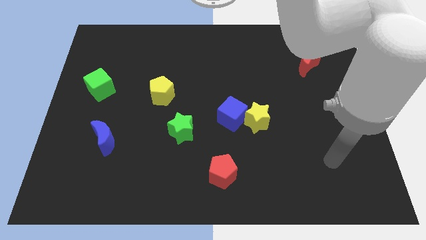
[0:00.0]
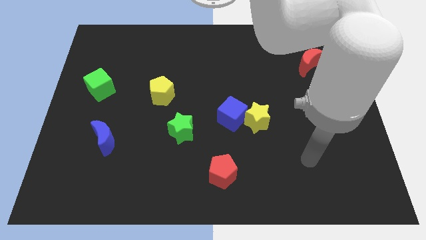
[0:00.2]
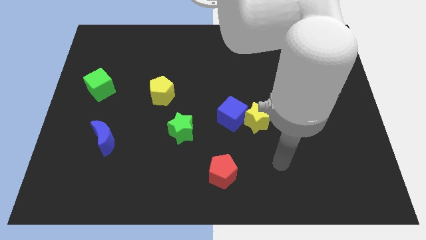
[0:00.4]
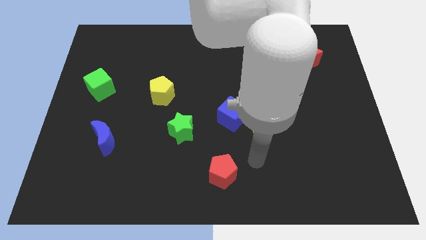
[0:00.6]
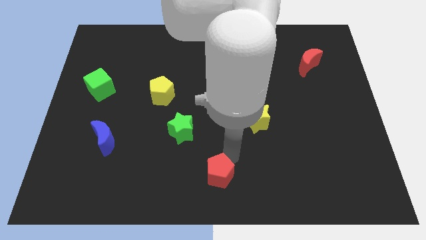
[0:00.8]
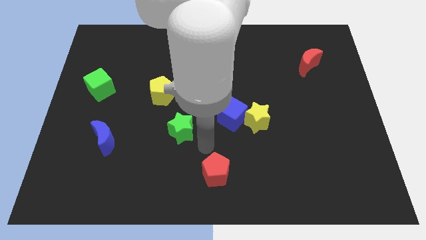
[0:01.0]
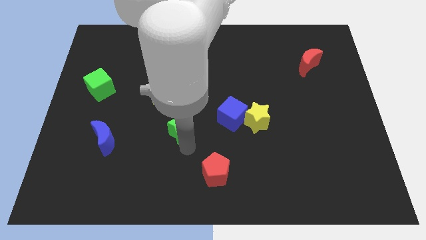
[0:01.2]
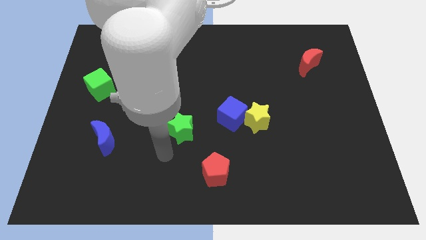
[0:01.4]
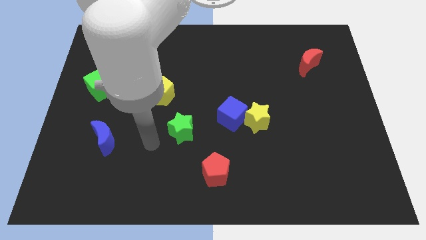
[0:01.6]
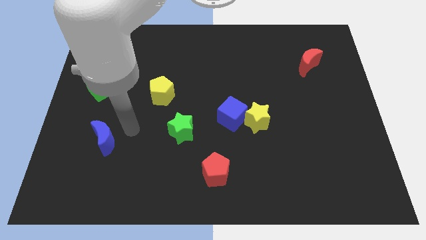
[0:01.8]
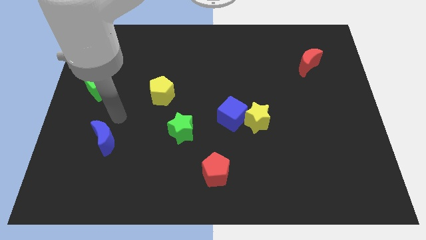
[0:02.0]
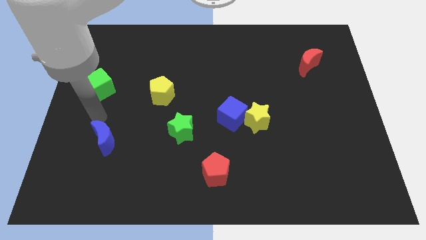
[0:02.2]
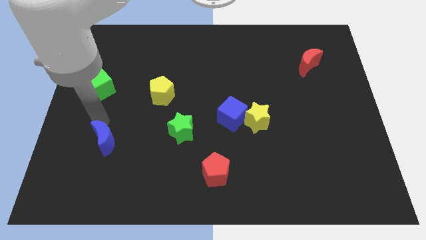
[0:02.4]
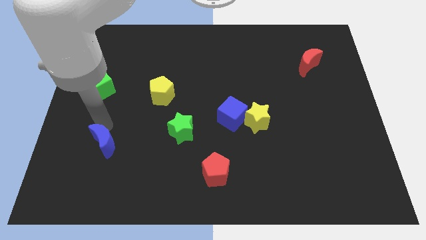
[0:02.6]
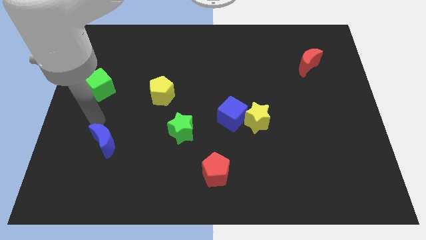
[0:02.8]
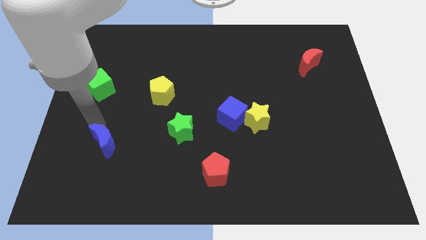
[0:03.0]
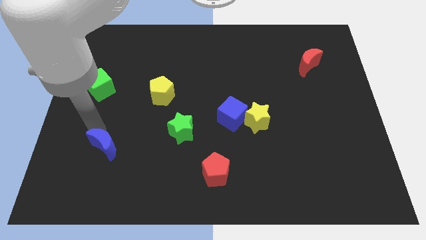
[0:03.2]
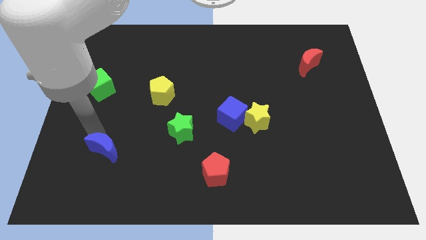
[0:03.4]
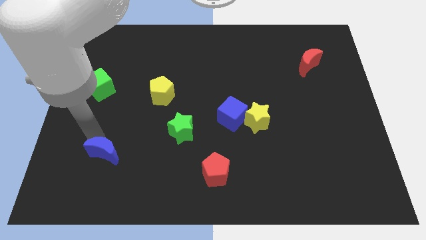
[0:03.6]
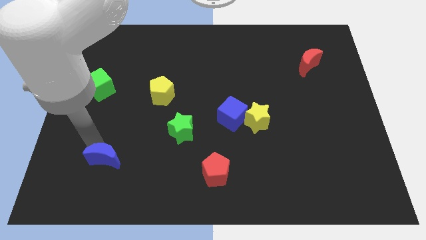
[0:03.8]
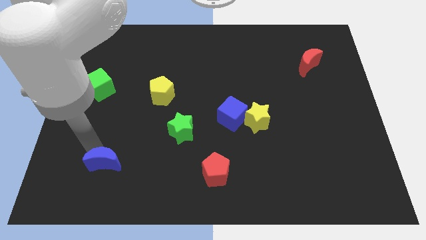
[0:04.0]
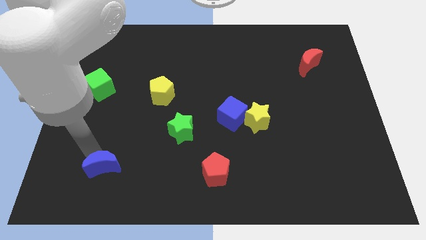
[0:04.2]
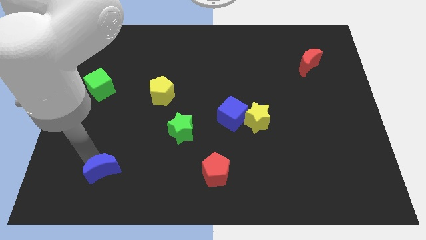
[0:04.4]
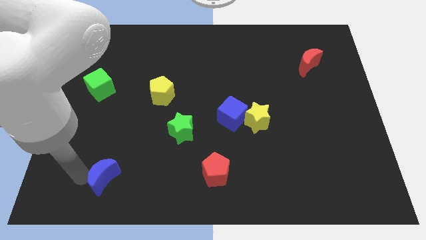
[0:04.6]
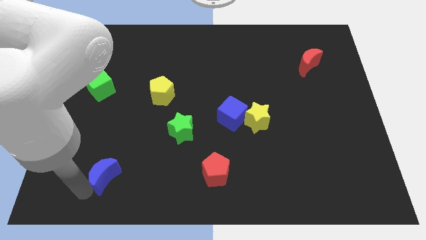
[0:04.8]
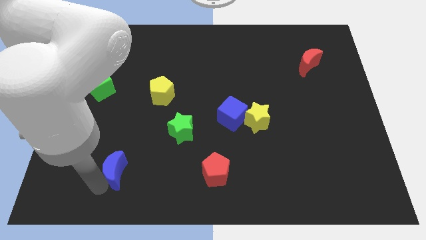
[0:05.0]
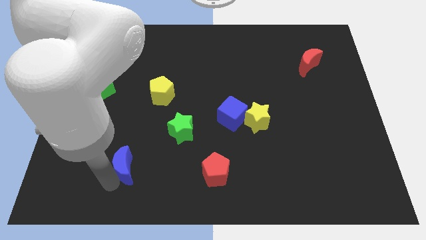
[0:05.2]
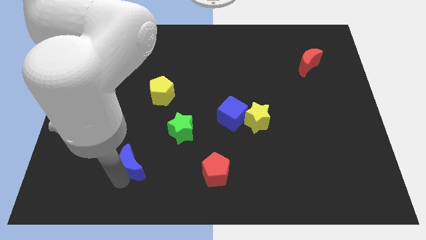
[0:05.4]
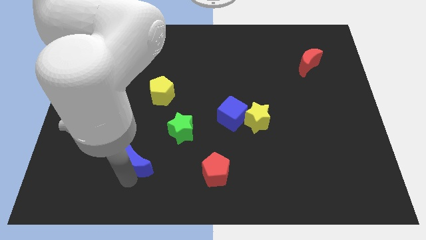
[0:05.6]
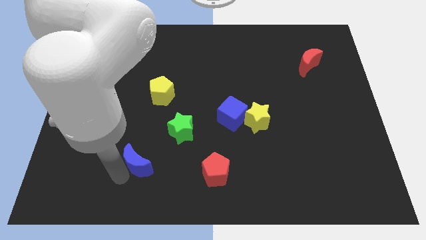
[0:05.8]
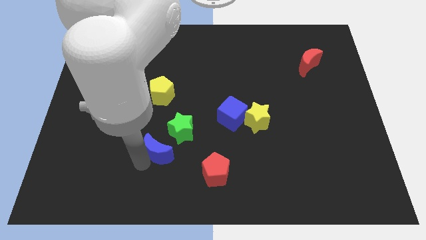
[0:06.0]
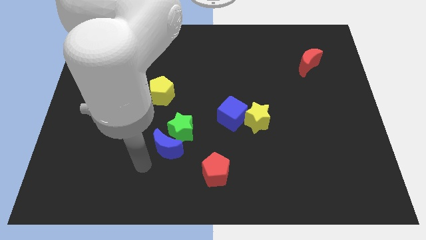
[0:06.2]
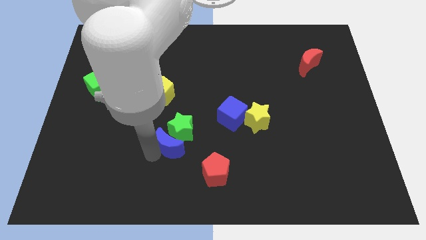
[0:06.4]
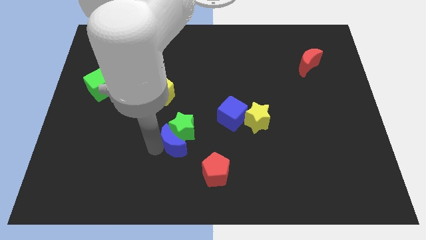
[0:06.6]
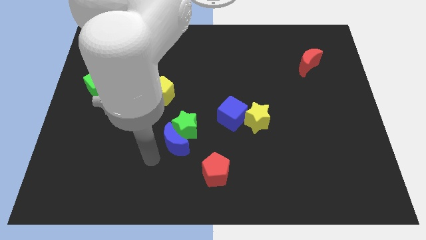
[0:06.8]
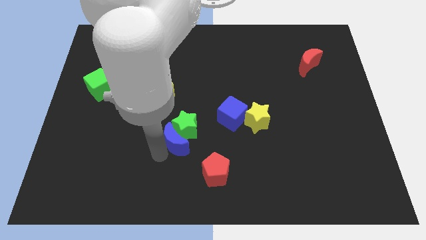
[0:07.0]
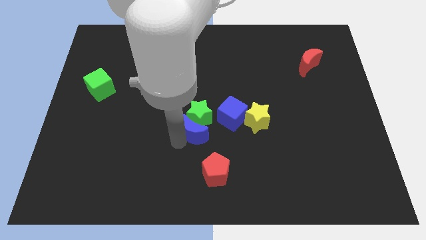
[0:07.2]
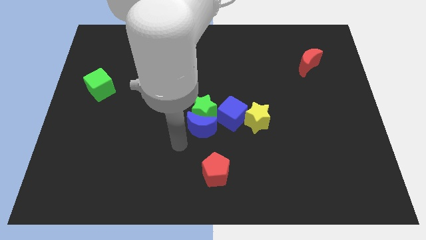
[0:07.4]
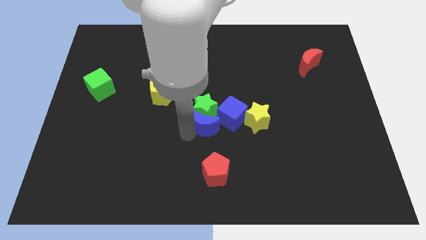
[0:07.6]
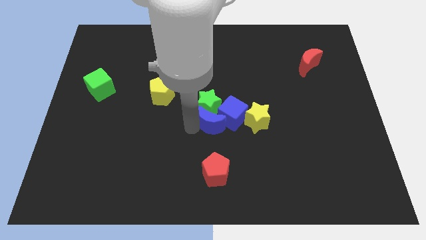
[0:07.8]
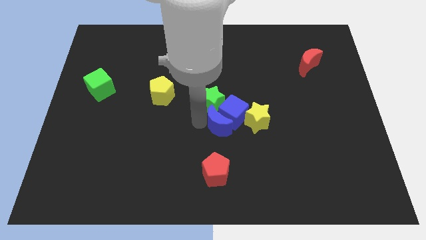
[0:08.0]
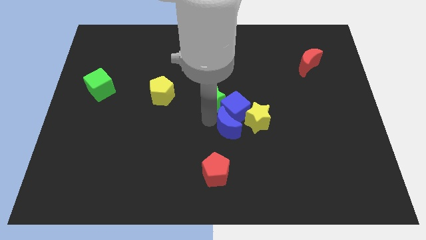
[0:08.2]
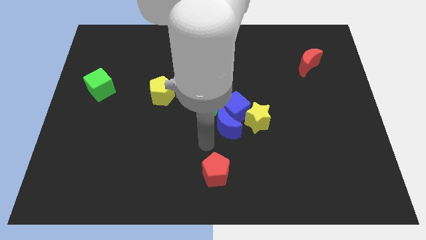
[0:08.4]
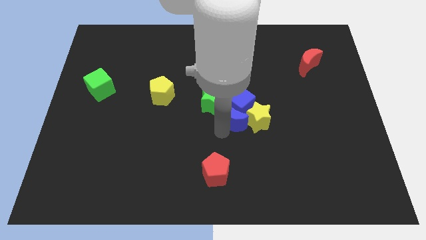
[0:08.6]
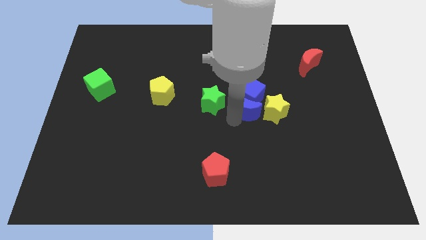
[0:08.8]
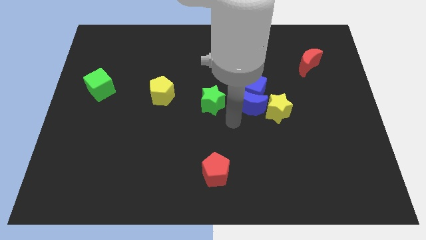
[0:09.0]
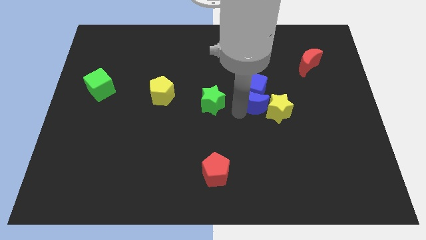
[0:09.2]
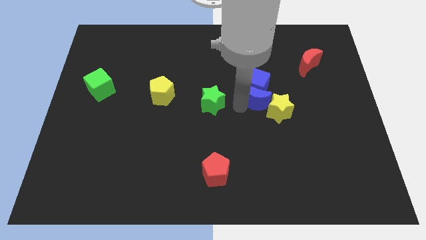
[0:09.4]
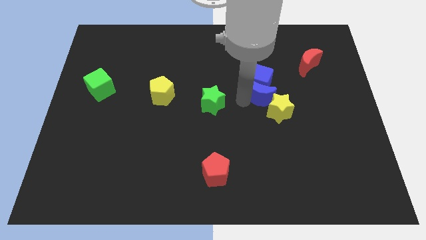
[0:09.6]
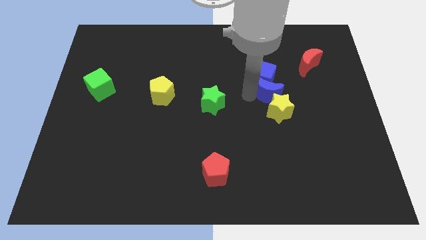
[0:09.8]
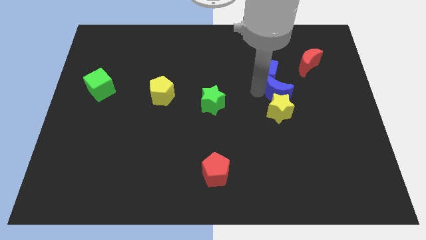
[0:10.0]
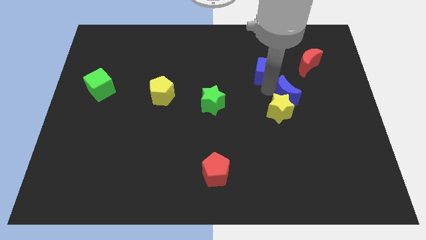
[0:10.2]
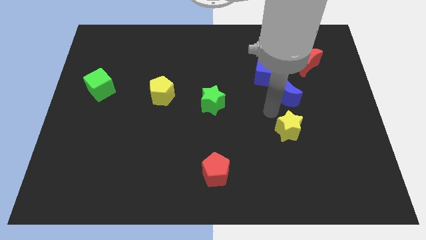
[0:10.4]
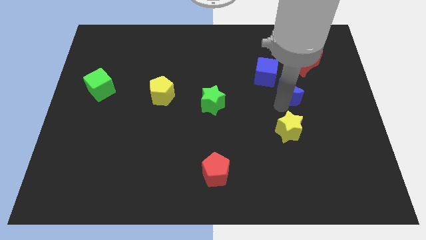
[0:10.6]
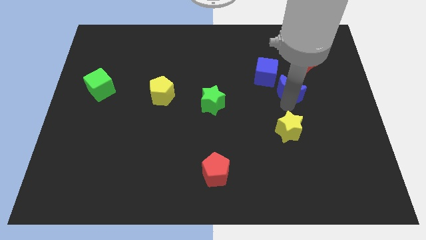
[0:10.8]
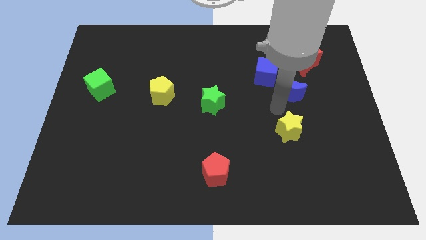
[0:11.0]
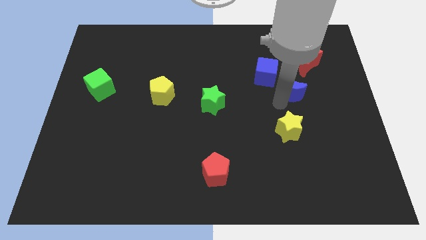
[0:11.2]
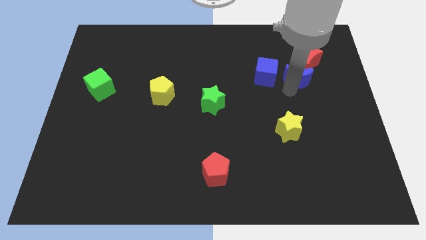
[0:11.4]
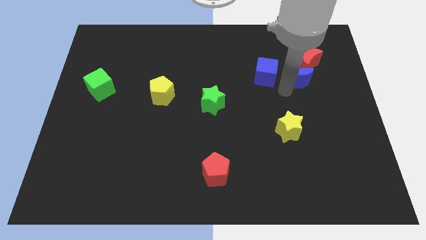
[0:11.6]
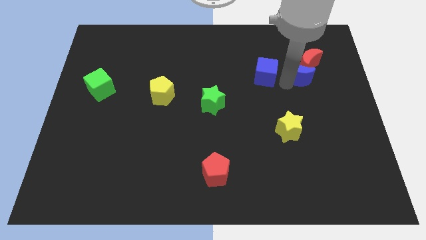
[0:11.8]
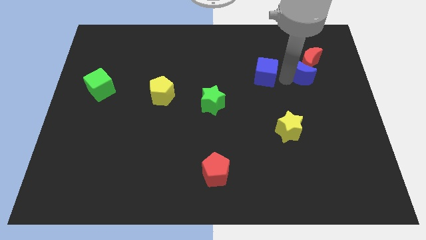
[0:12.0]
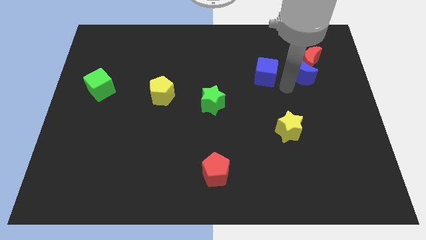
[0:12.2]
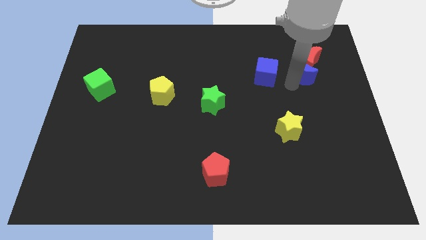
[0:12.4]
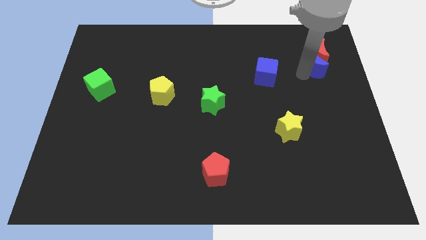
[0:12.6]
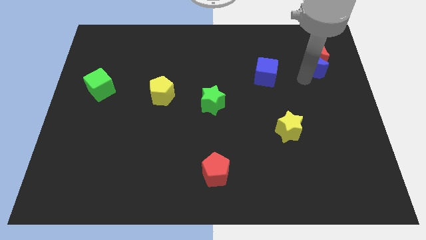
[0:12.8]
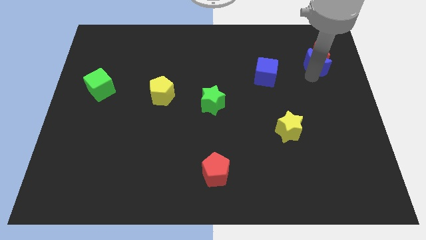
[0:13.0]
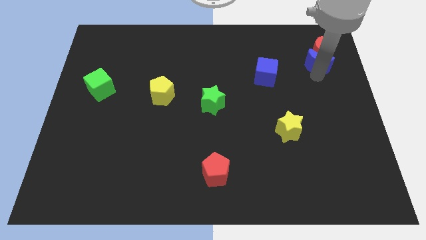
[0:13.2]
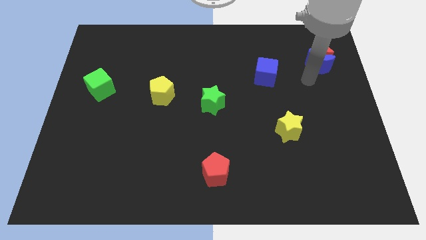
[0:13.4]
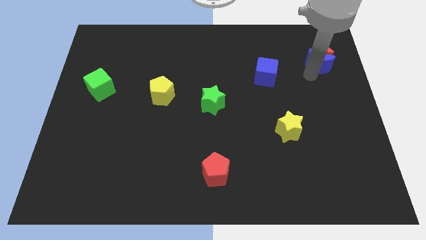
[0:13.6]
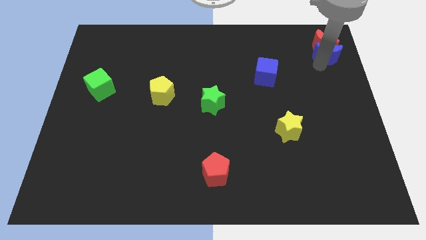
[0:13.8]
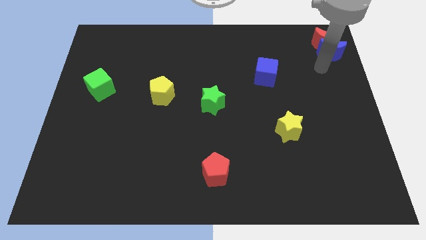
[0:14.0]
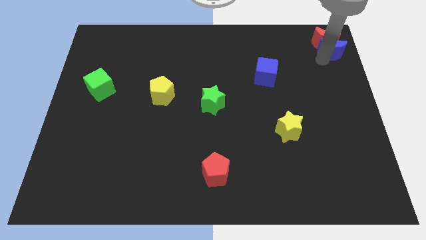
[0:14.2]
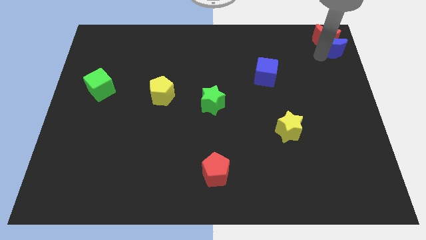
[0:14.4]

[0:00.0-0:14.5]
push the blue moon to the upper right corner
